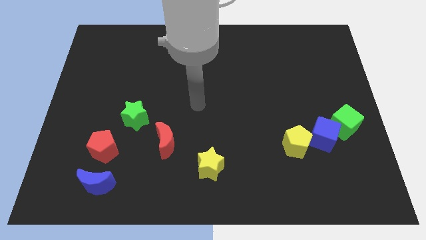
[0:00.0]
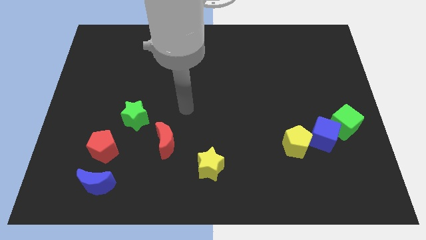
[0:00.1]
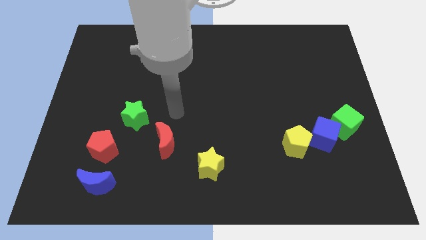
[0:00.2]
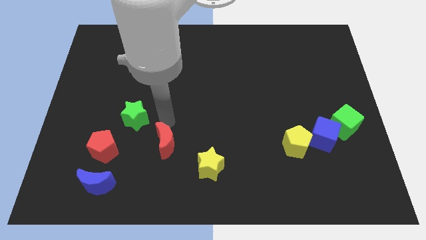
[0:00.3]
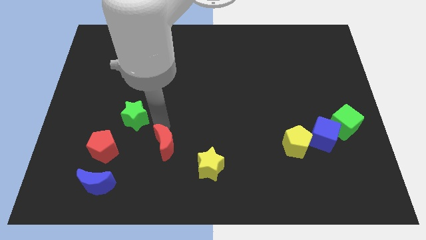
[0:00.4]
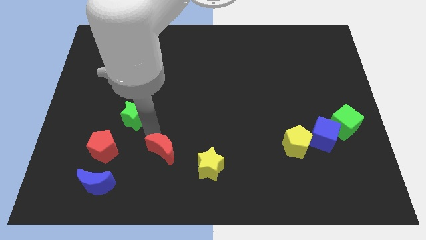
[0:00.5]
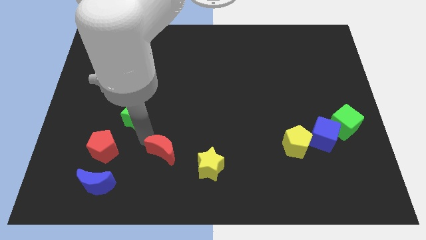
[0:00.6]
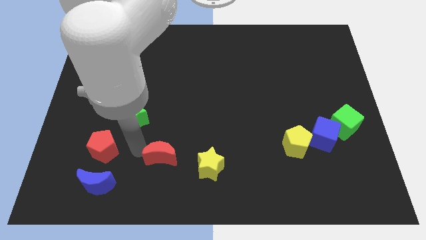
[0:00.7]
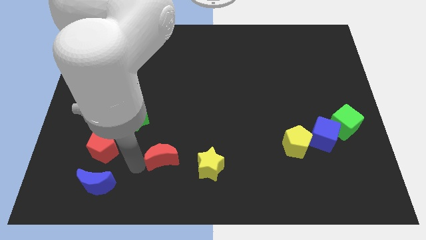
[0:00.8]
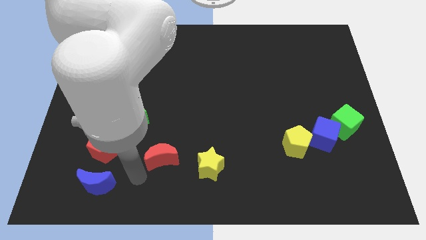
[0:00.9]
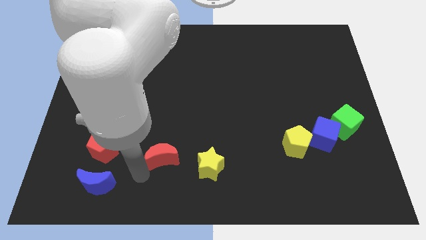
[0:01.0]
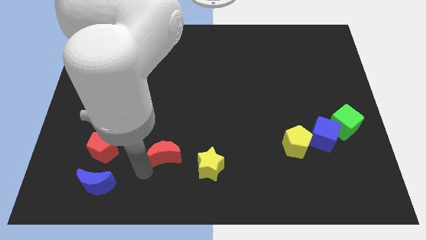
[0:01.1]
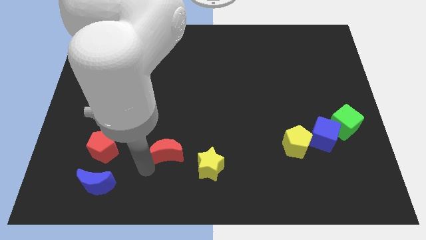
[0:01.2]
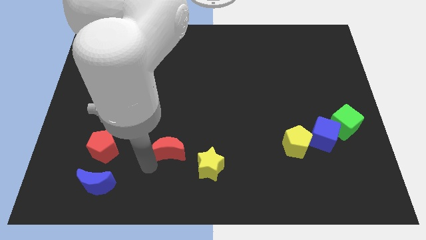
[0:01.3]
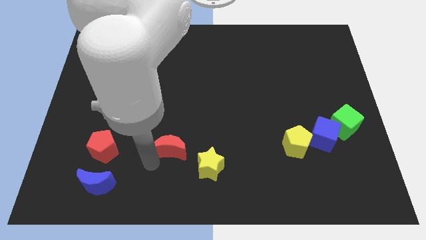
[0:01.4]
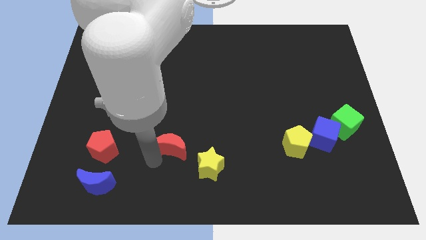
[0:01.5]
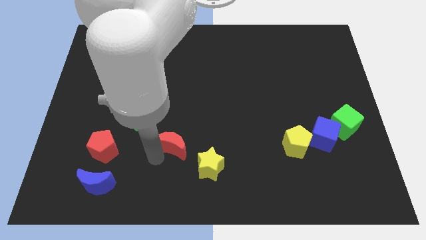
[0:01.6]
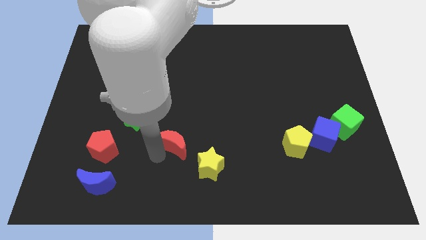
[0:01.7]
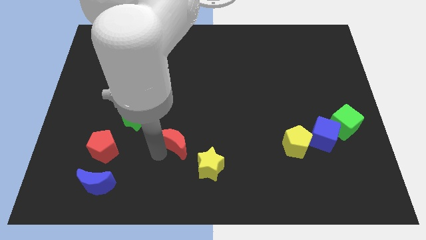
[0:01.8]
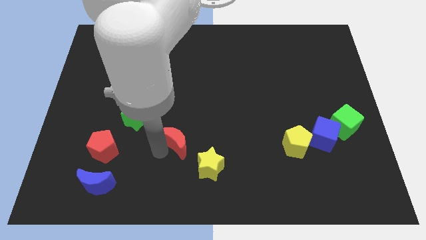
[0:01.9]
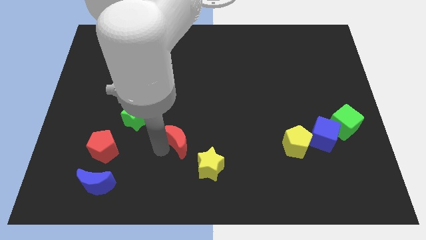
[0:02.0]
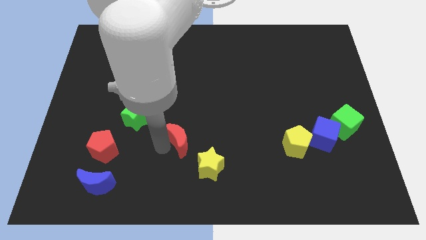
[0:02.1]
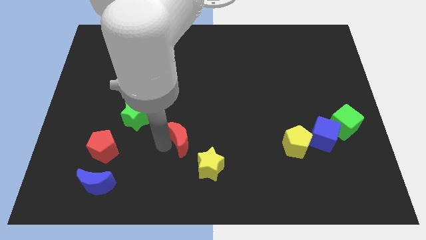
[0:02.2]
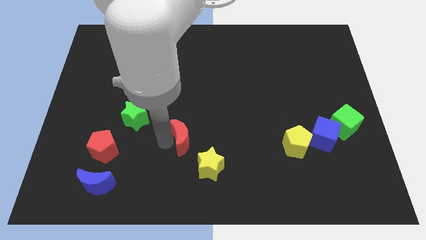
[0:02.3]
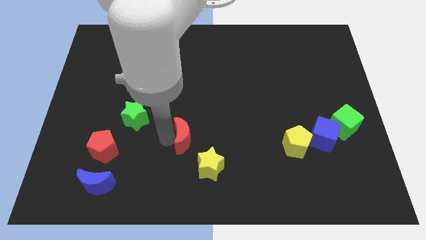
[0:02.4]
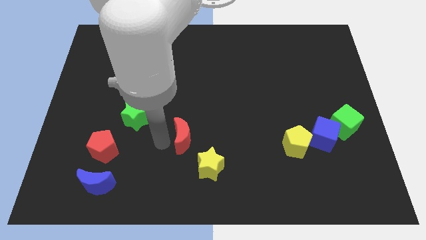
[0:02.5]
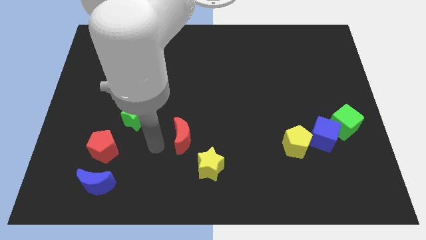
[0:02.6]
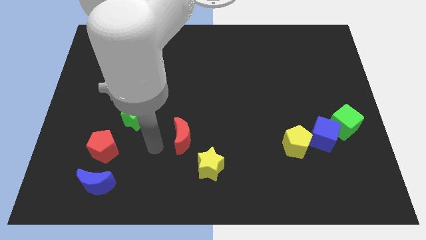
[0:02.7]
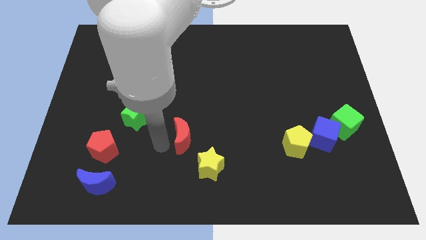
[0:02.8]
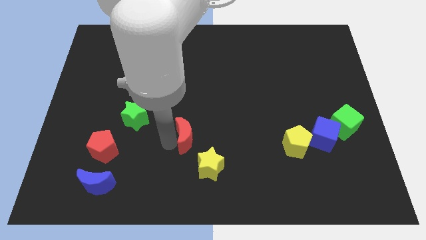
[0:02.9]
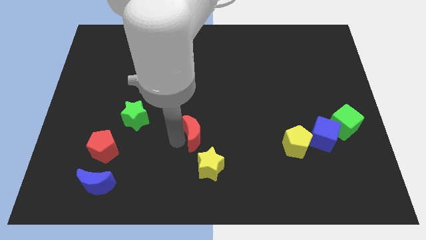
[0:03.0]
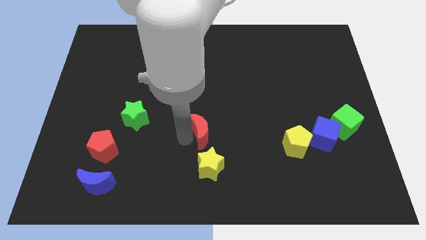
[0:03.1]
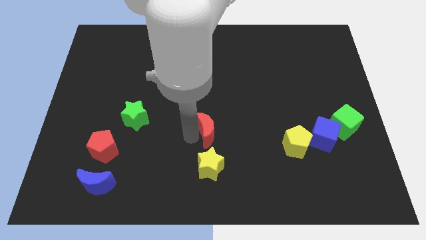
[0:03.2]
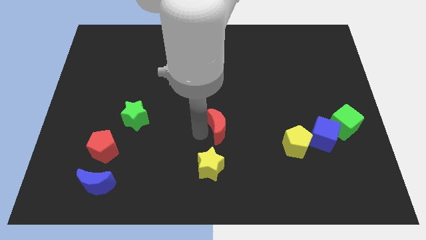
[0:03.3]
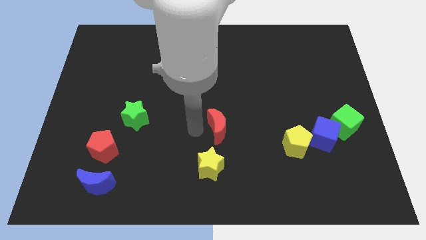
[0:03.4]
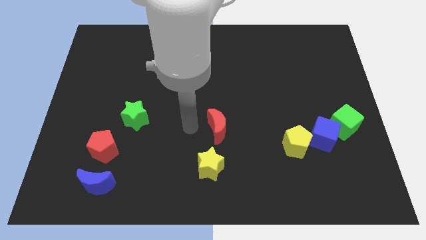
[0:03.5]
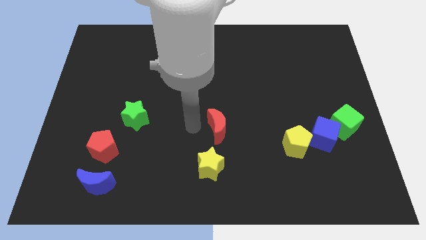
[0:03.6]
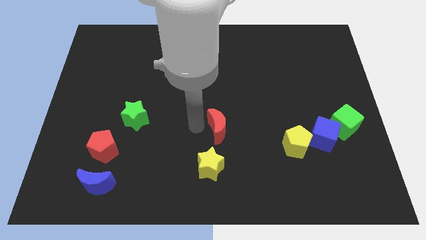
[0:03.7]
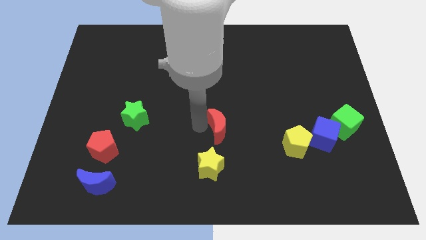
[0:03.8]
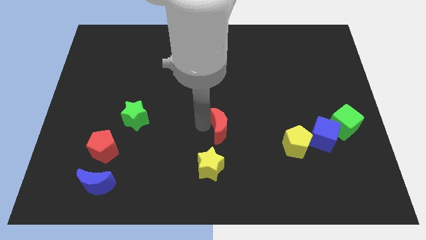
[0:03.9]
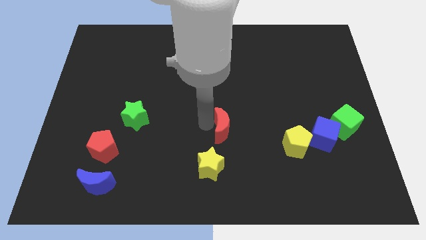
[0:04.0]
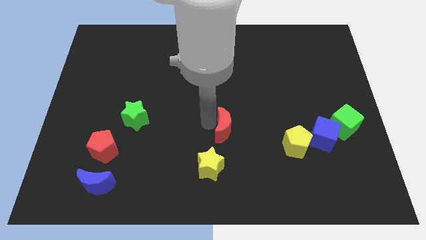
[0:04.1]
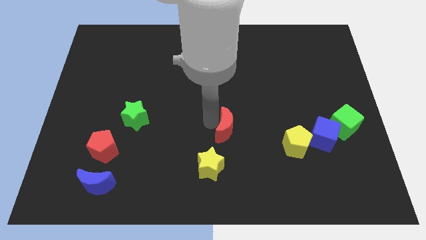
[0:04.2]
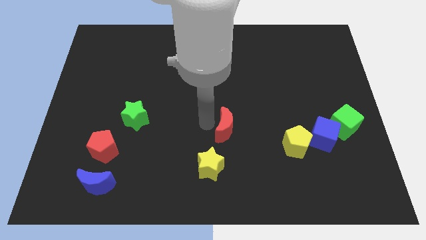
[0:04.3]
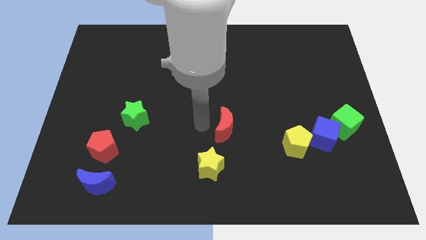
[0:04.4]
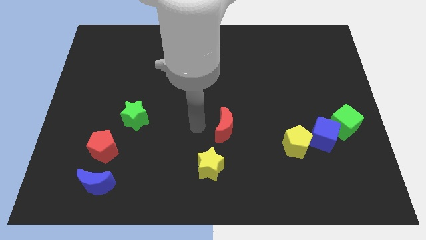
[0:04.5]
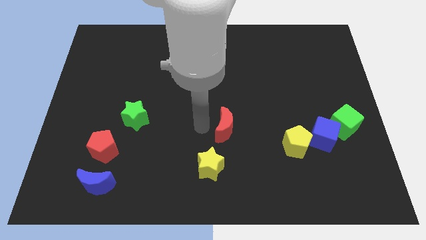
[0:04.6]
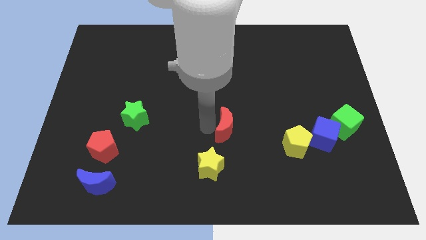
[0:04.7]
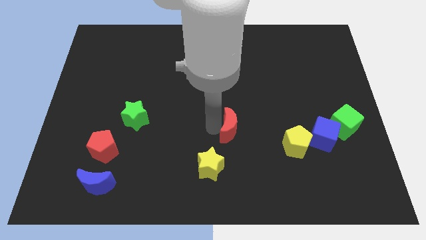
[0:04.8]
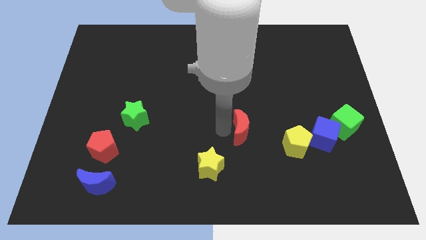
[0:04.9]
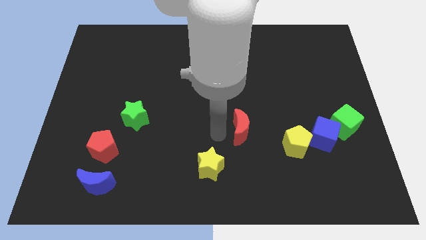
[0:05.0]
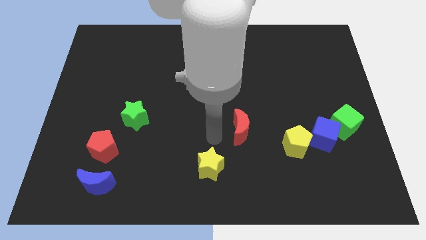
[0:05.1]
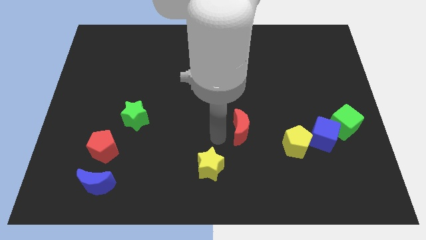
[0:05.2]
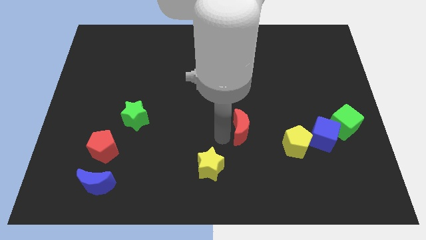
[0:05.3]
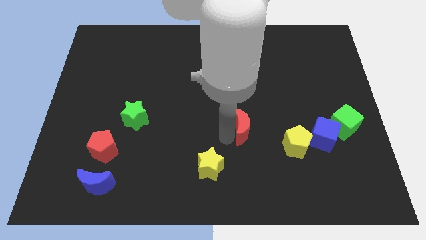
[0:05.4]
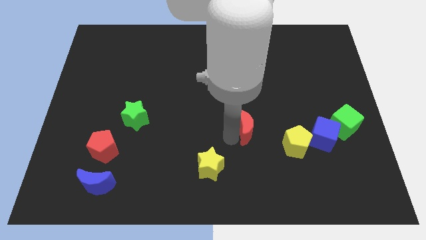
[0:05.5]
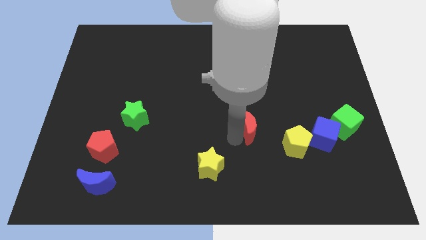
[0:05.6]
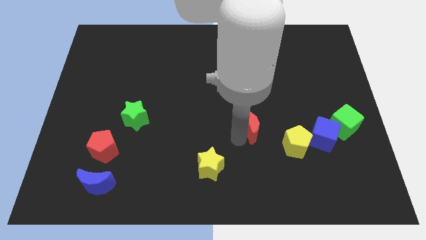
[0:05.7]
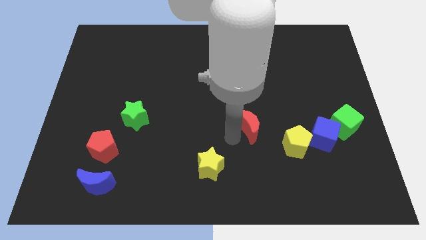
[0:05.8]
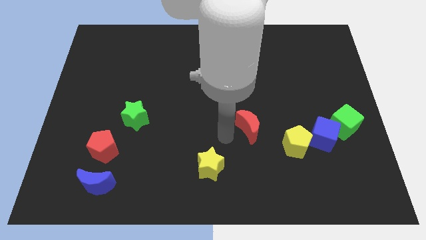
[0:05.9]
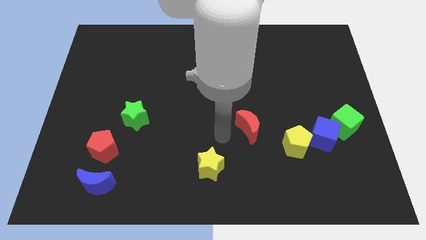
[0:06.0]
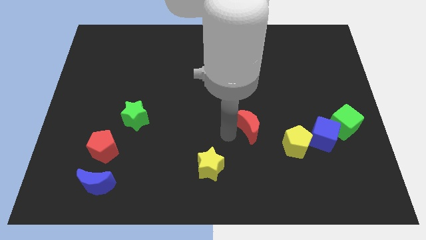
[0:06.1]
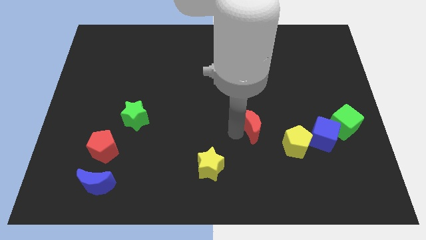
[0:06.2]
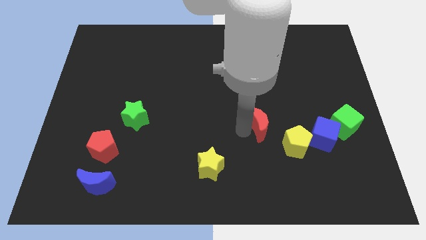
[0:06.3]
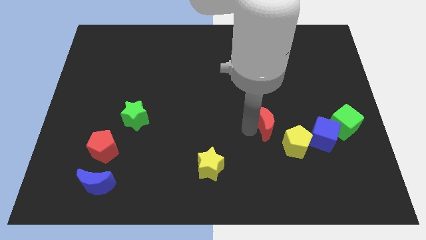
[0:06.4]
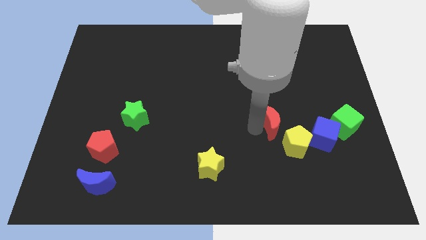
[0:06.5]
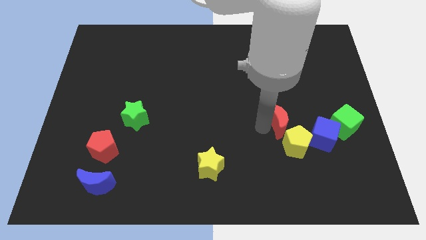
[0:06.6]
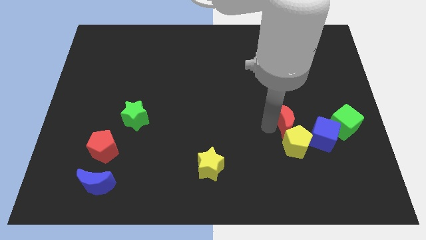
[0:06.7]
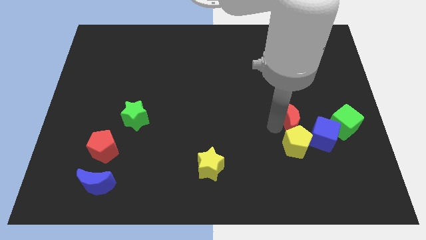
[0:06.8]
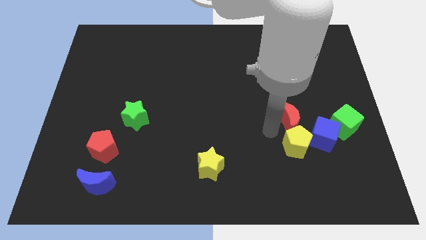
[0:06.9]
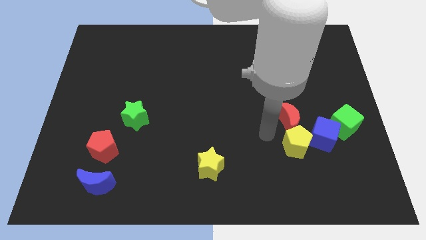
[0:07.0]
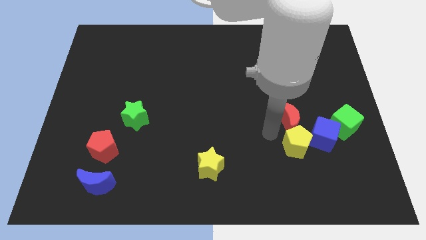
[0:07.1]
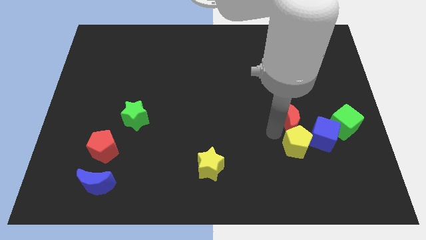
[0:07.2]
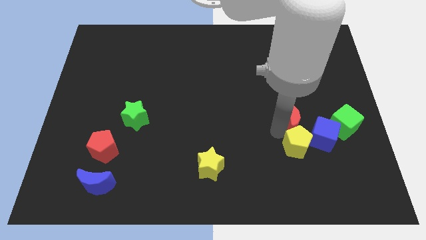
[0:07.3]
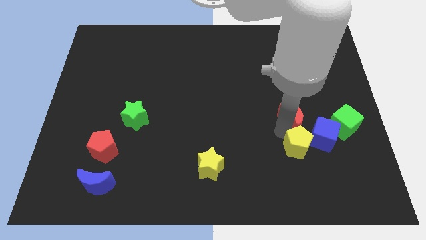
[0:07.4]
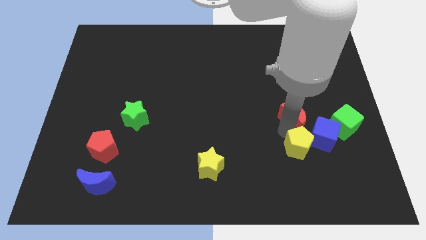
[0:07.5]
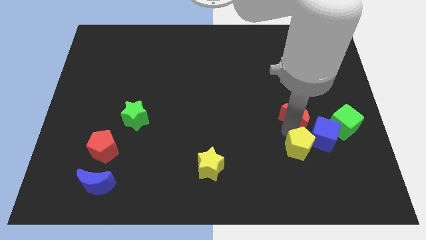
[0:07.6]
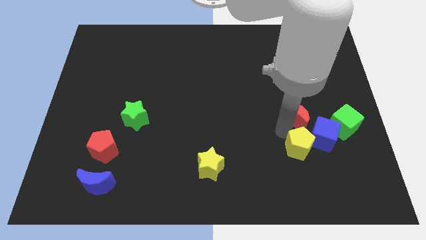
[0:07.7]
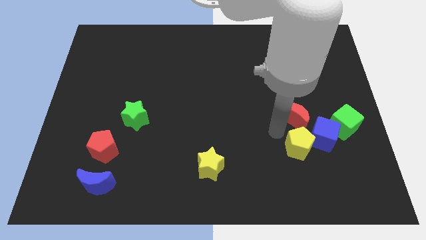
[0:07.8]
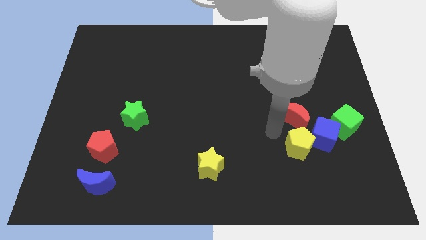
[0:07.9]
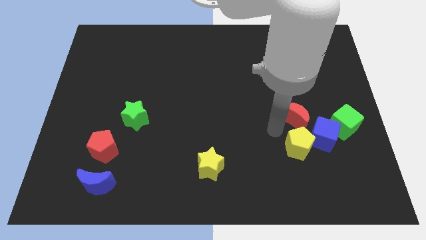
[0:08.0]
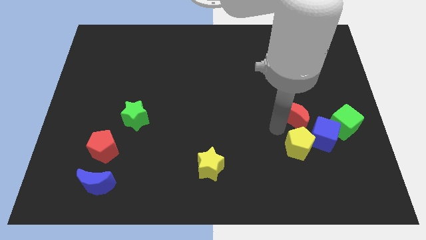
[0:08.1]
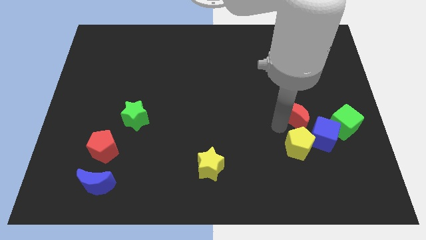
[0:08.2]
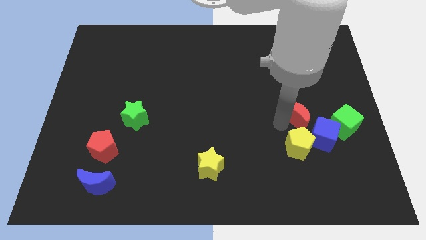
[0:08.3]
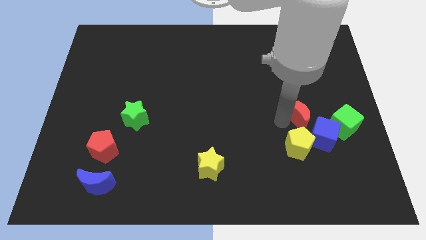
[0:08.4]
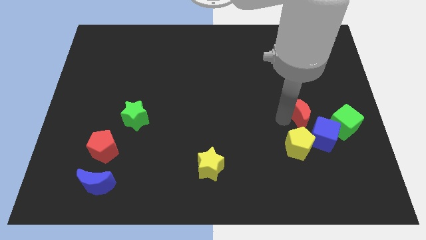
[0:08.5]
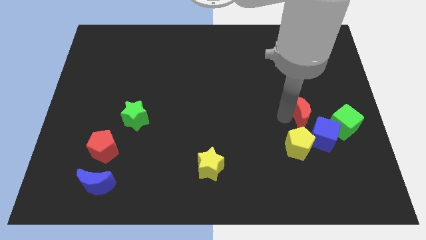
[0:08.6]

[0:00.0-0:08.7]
push the red moon to the top left side of the green cube
